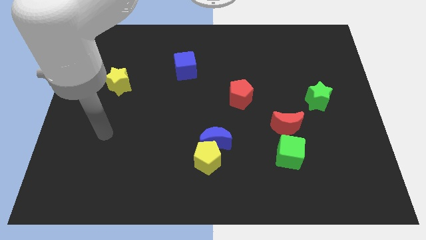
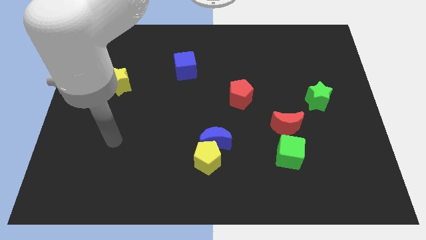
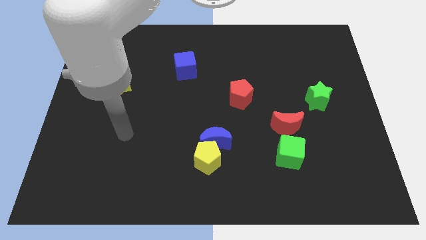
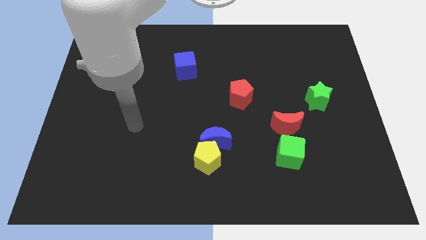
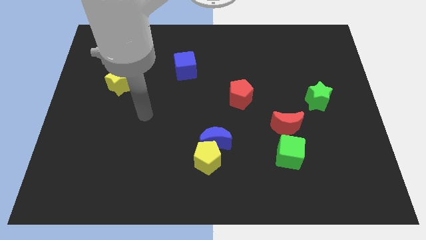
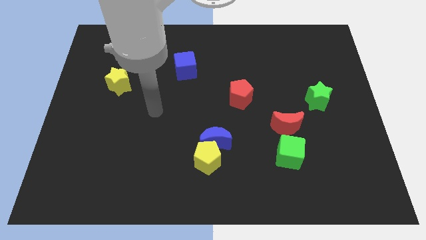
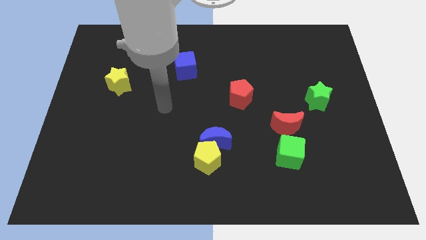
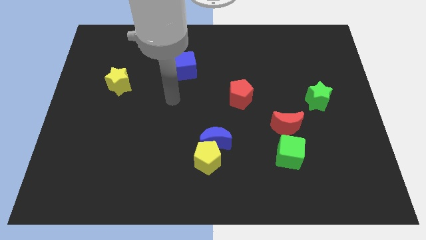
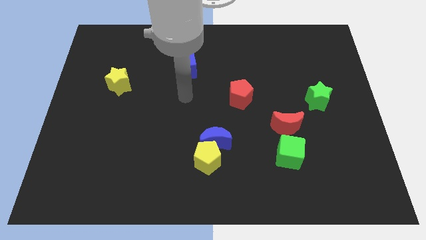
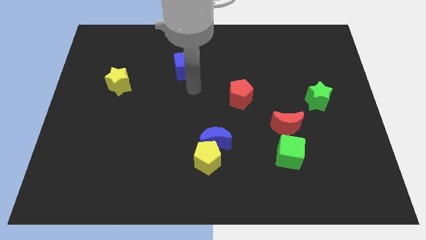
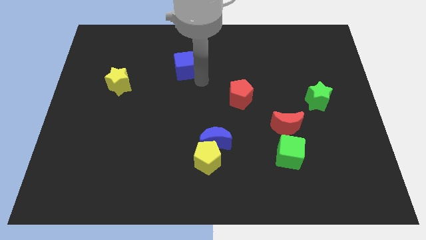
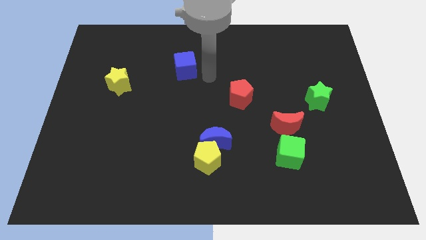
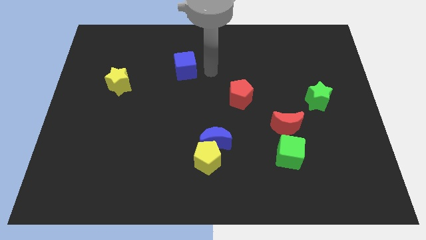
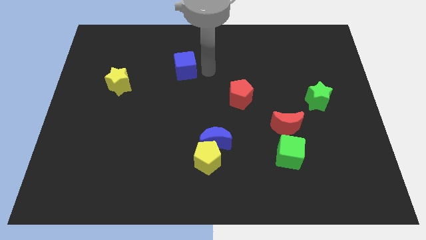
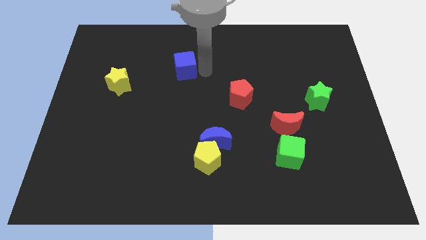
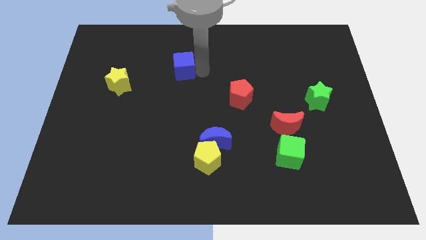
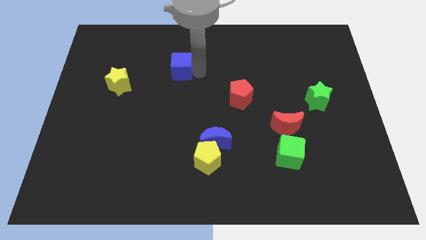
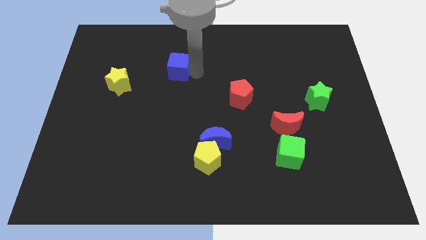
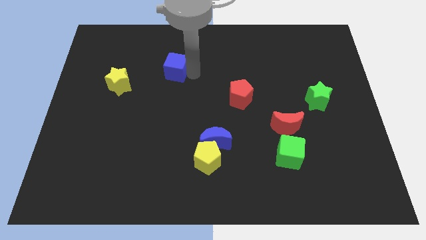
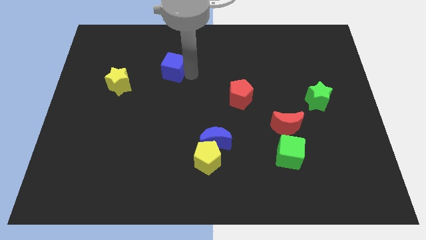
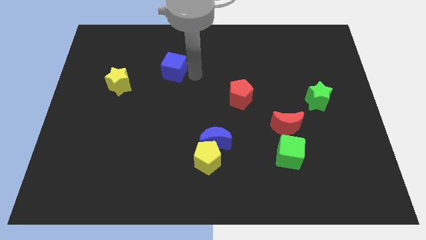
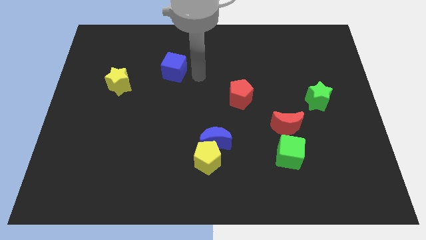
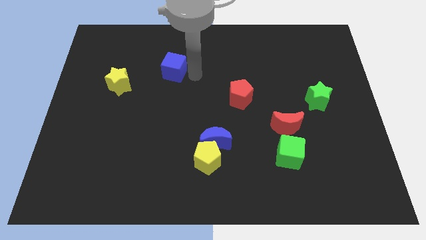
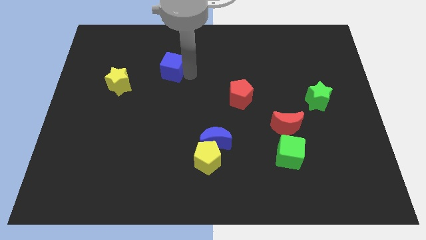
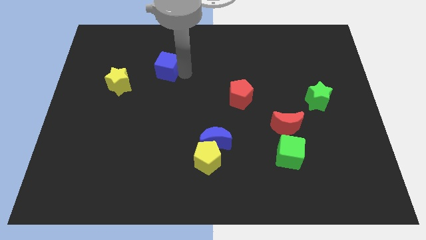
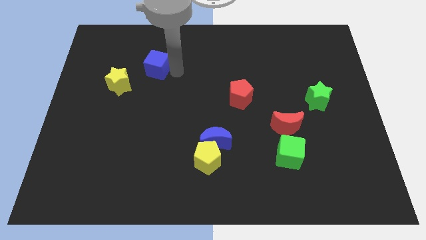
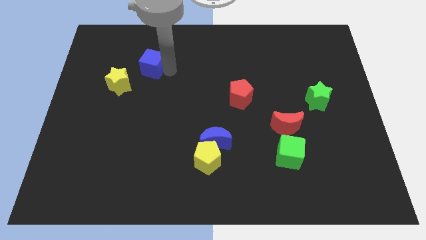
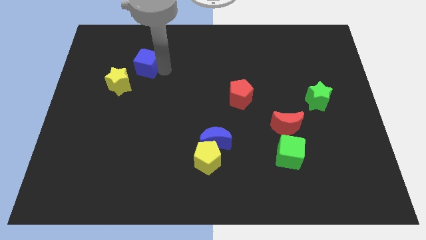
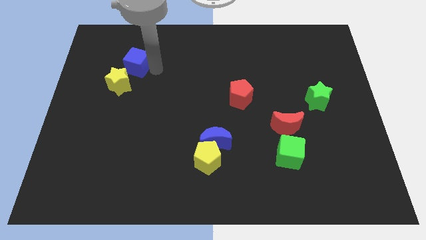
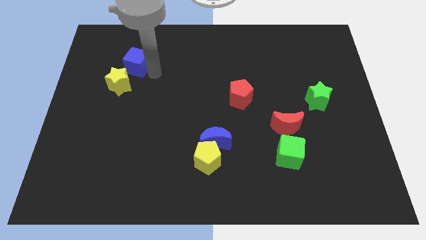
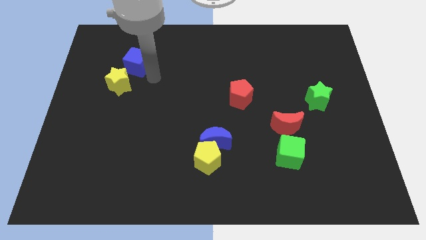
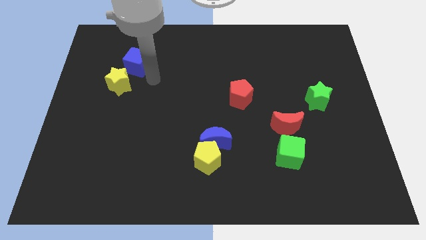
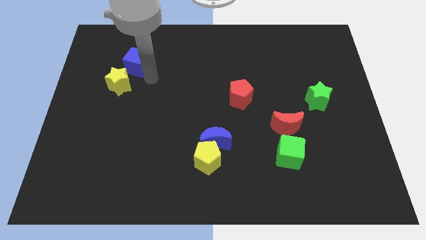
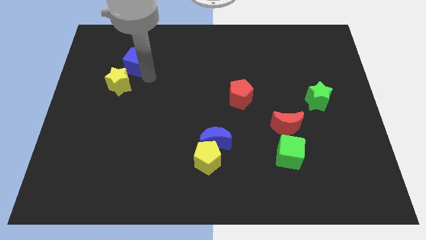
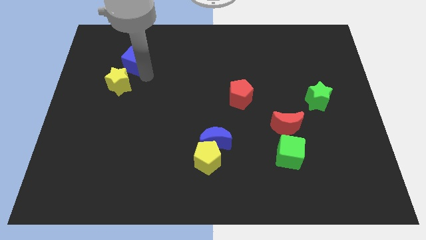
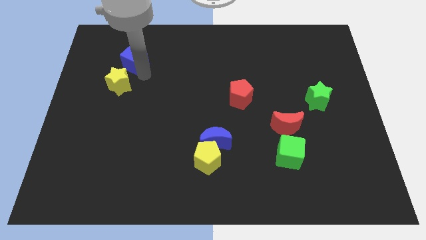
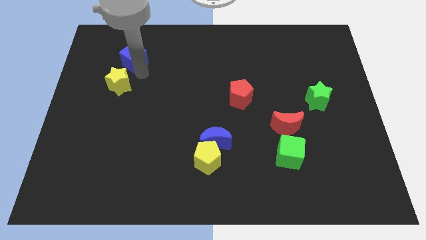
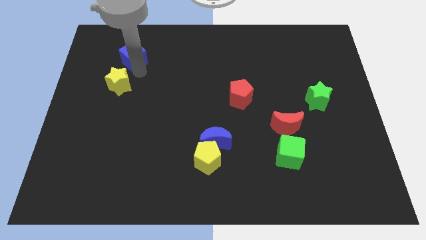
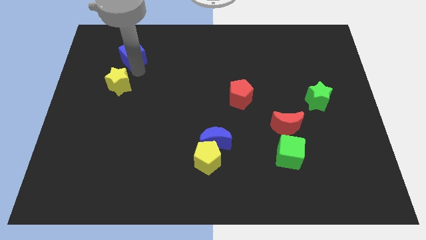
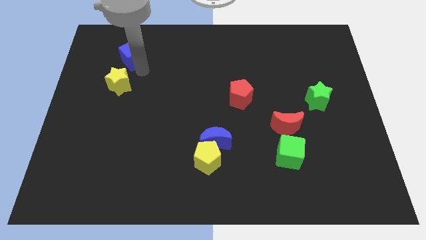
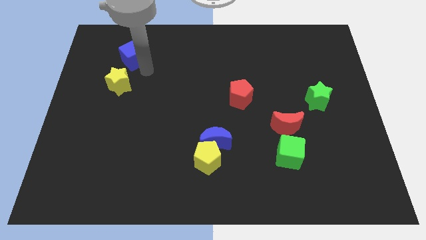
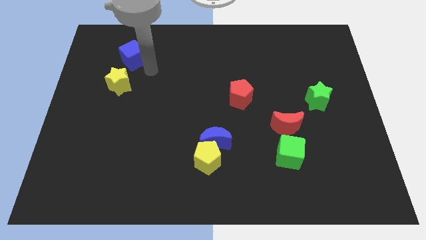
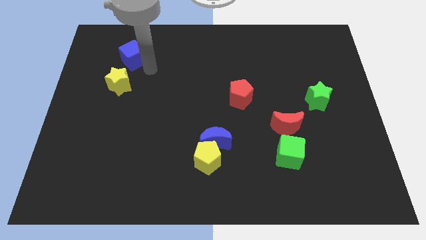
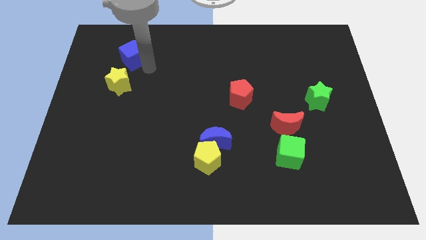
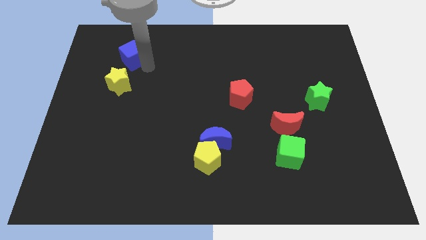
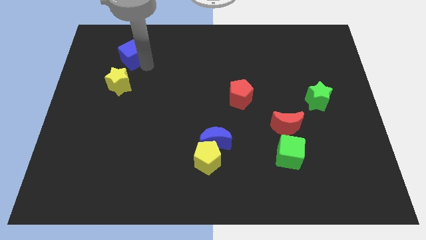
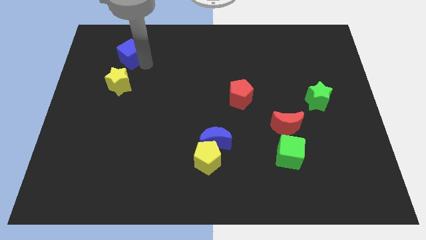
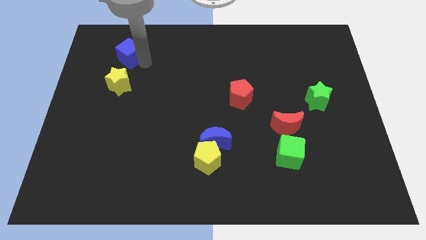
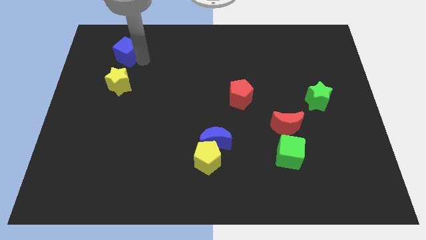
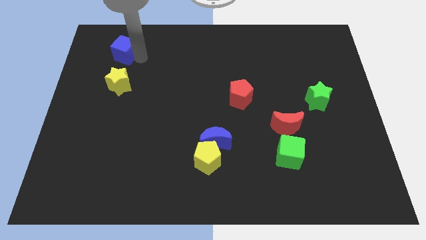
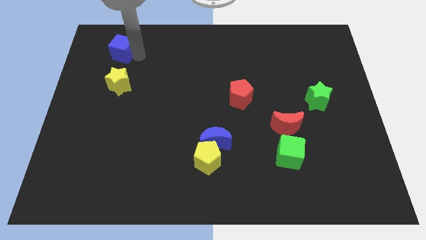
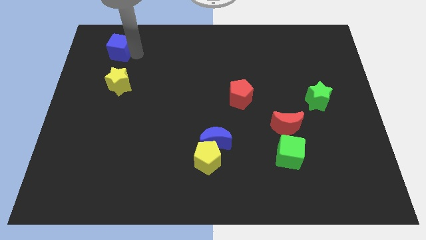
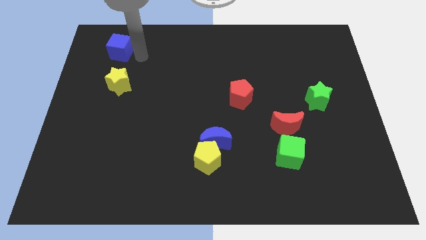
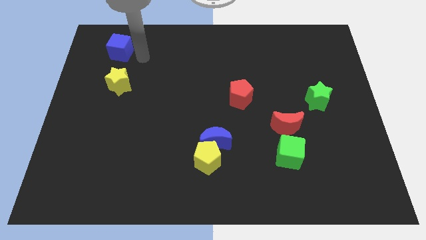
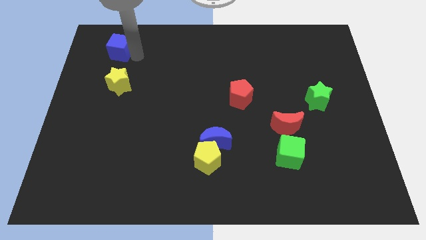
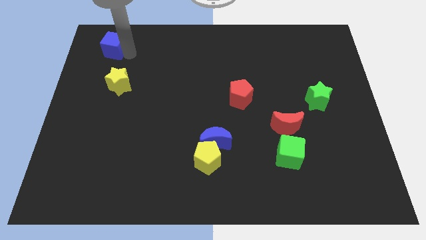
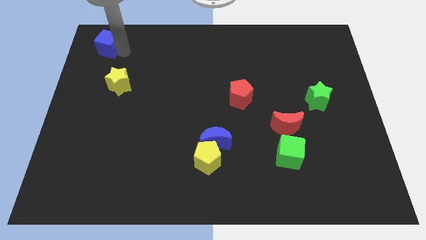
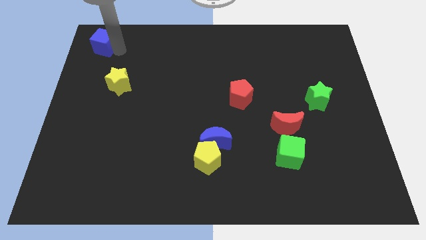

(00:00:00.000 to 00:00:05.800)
put the blue cube to the top left of the board

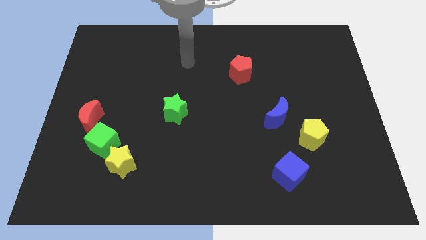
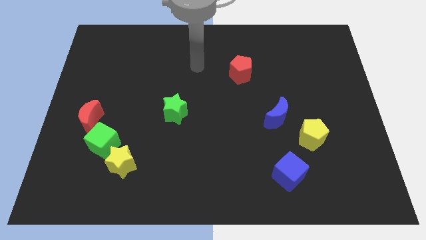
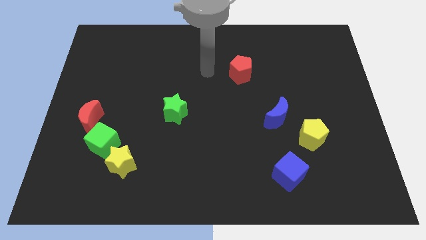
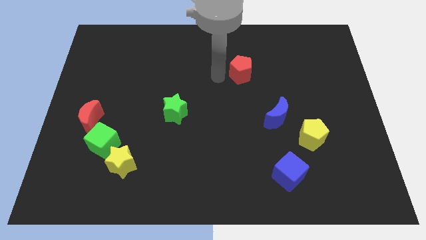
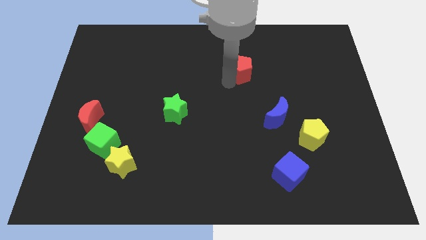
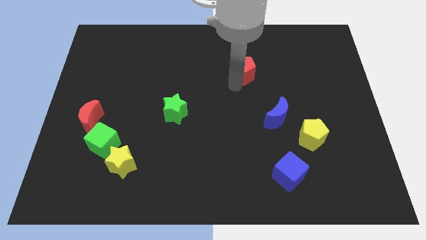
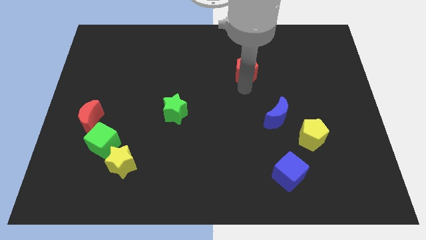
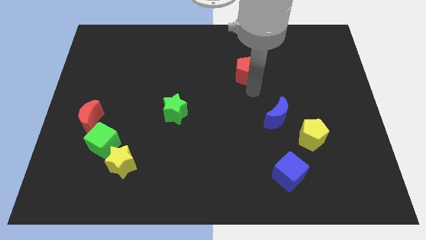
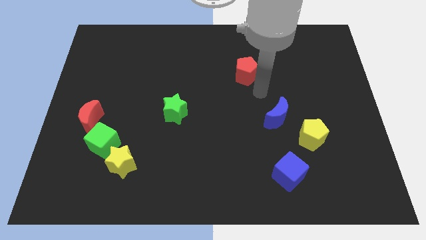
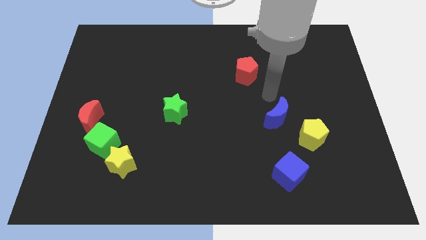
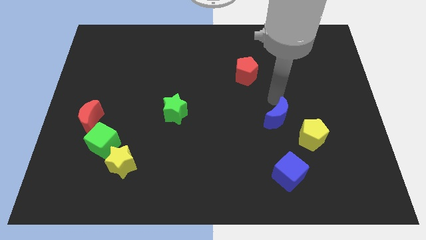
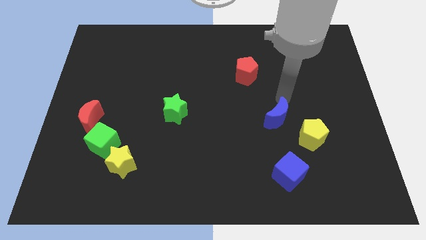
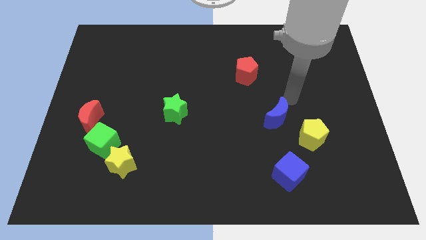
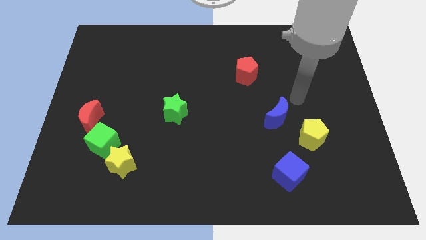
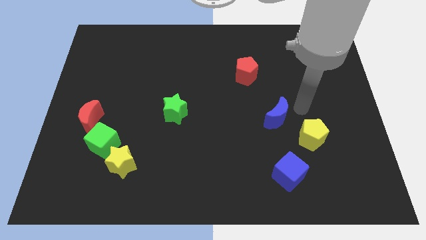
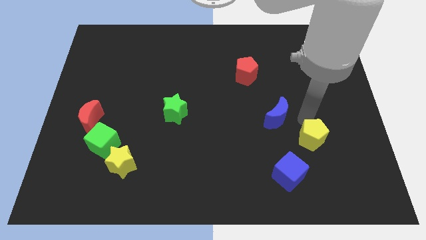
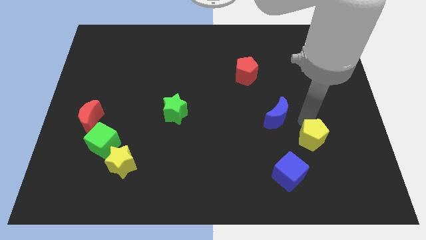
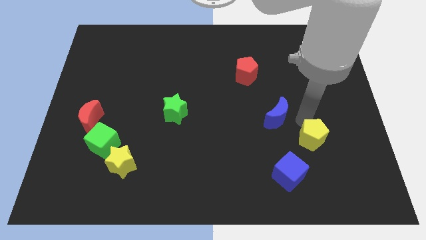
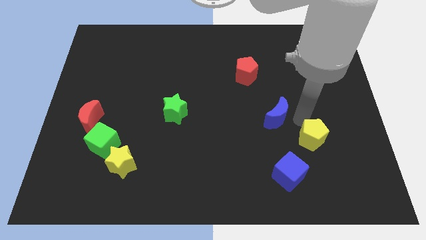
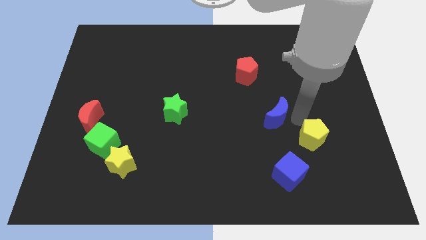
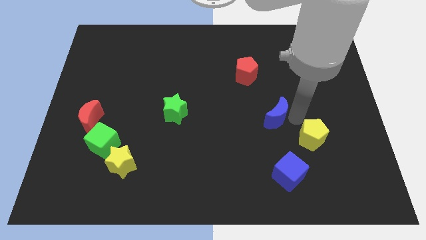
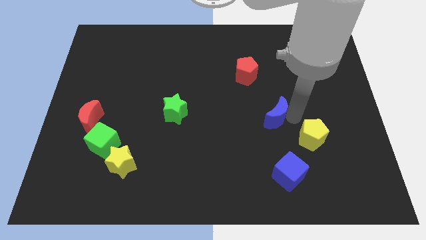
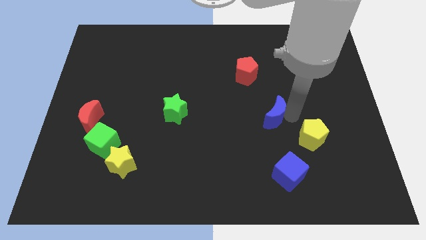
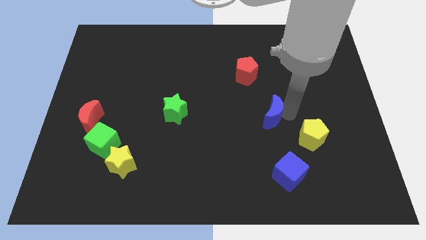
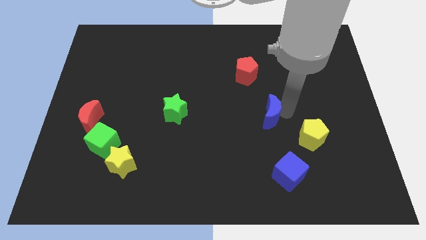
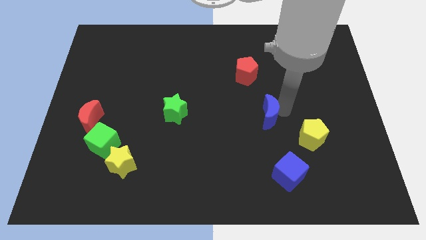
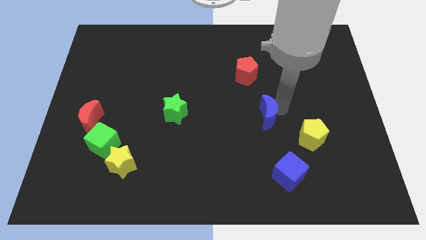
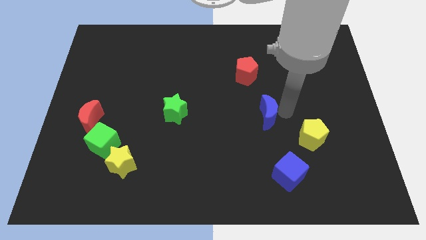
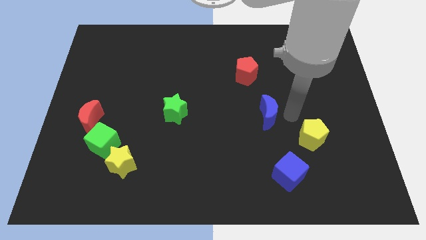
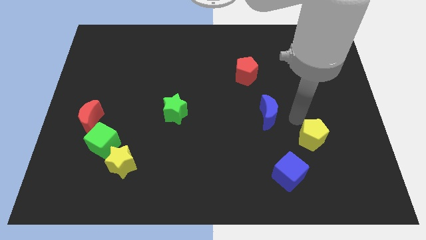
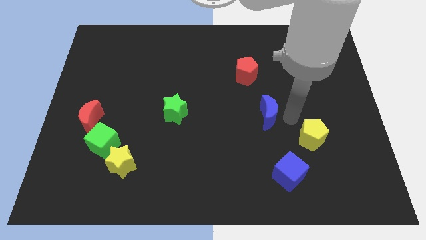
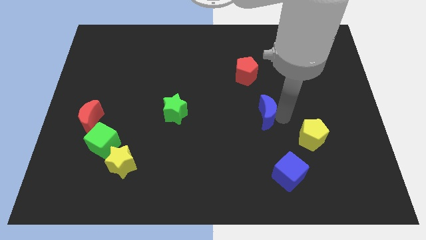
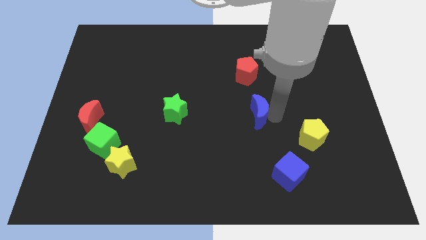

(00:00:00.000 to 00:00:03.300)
slide the blue moon to the middle
